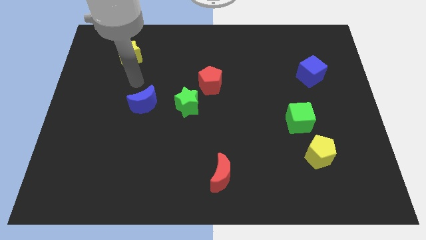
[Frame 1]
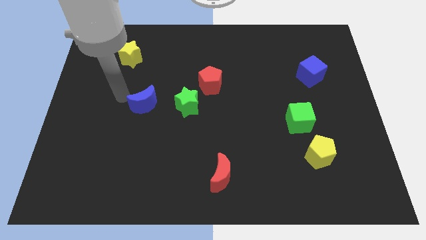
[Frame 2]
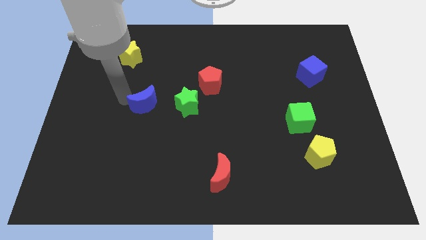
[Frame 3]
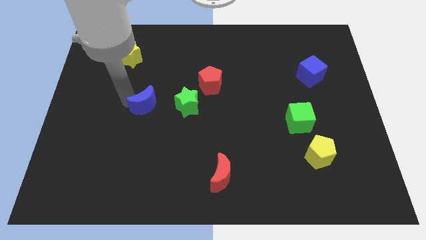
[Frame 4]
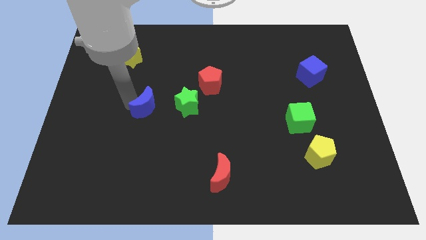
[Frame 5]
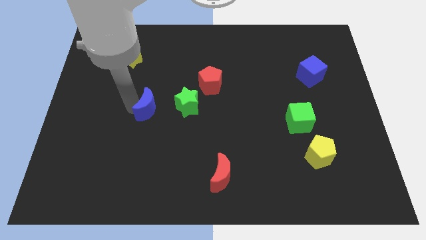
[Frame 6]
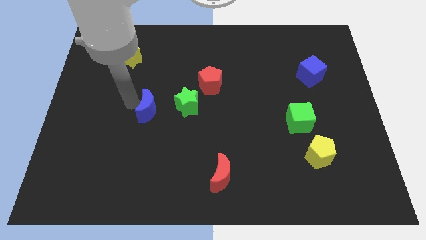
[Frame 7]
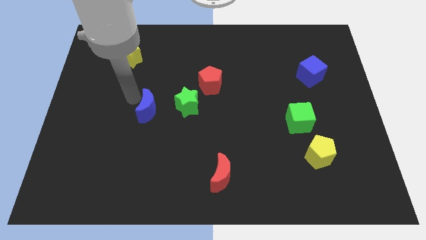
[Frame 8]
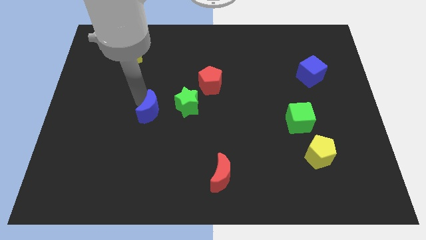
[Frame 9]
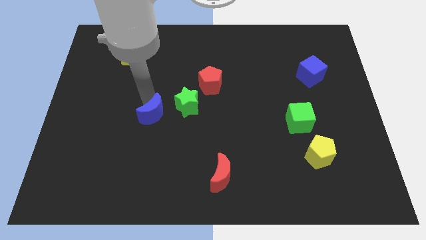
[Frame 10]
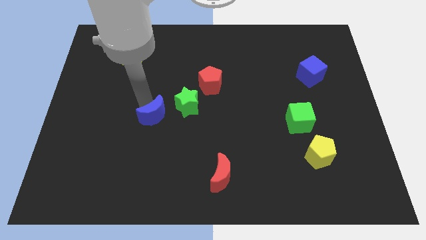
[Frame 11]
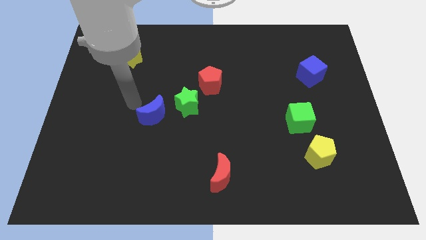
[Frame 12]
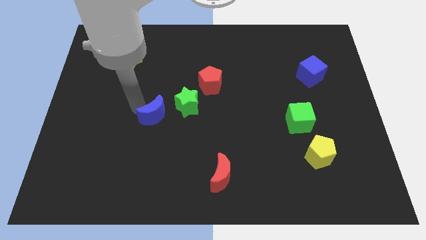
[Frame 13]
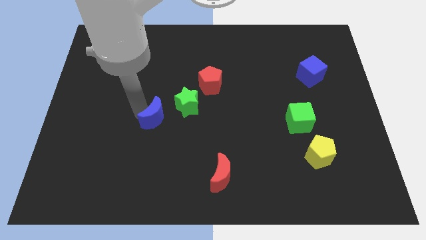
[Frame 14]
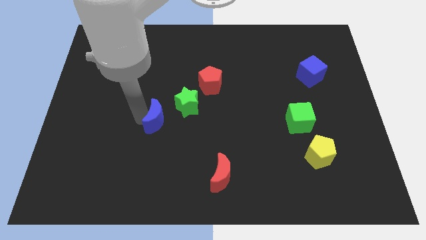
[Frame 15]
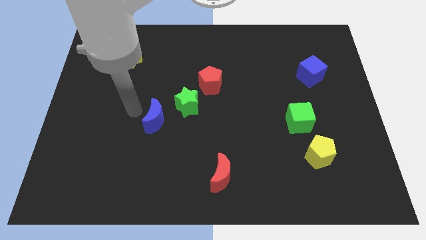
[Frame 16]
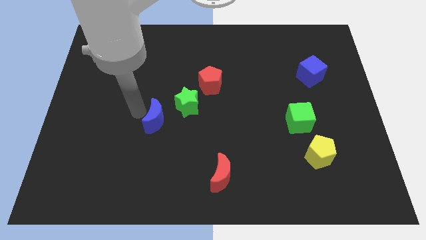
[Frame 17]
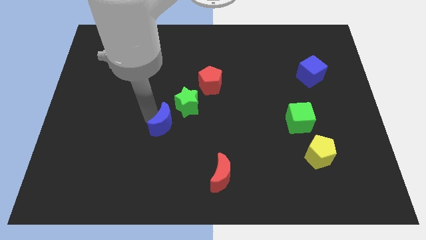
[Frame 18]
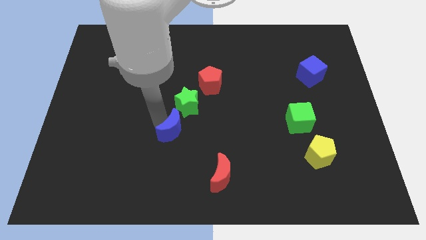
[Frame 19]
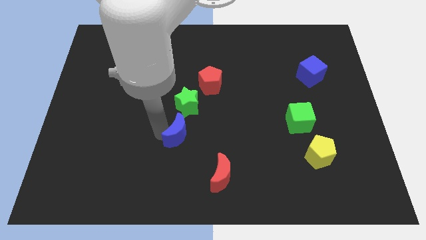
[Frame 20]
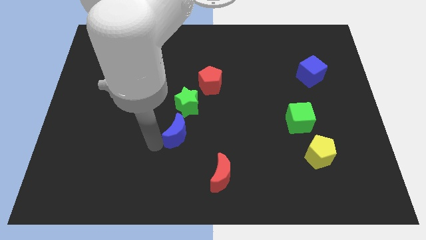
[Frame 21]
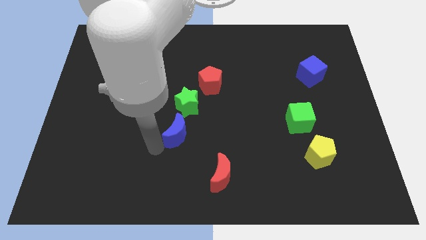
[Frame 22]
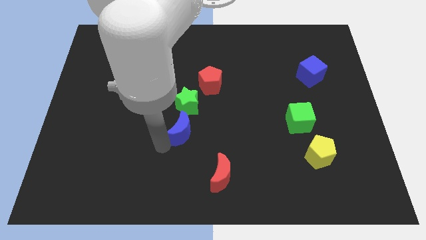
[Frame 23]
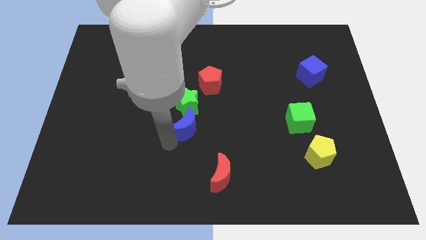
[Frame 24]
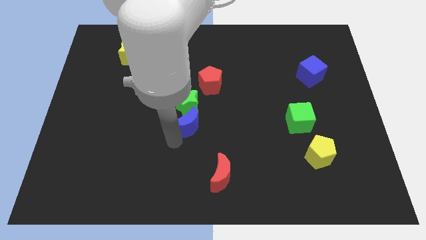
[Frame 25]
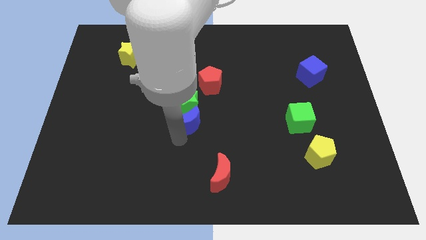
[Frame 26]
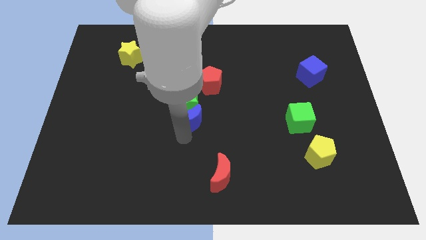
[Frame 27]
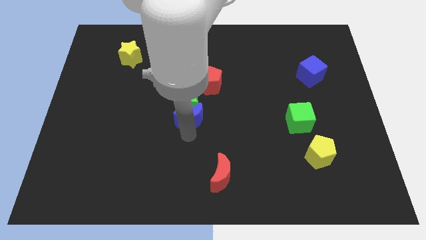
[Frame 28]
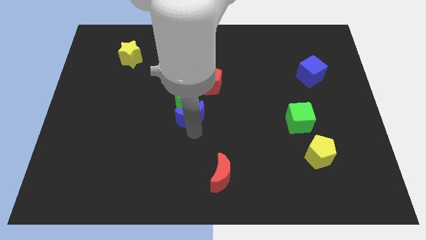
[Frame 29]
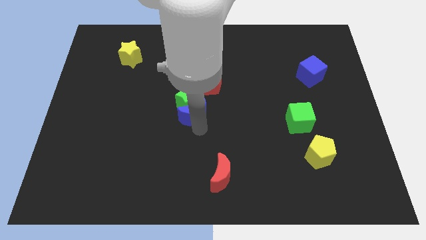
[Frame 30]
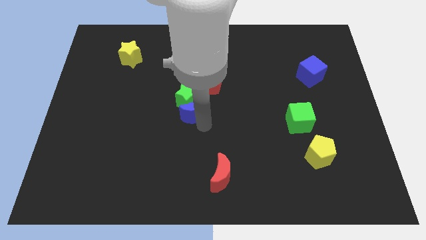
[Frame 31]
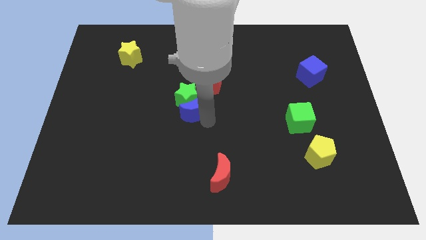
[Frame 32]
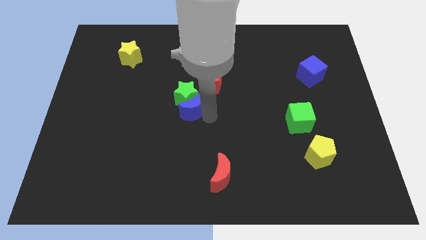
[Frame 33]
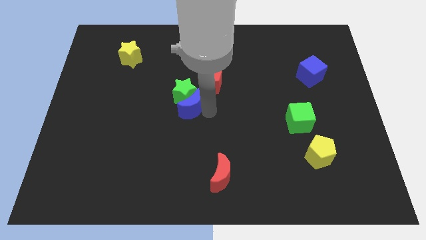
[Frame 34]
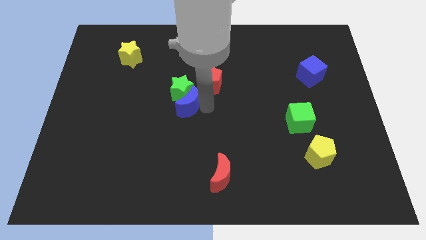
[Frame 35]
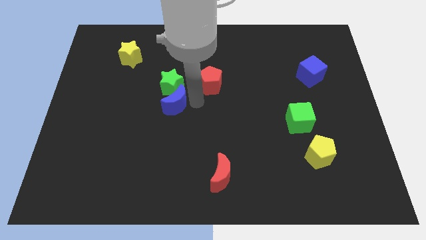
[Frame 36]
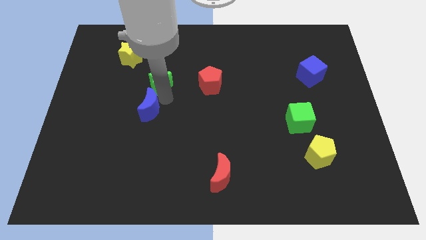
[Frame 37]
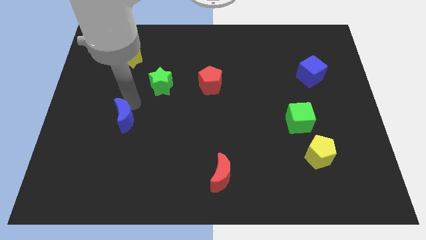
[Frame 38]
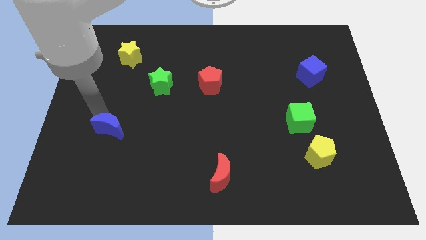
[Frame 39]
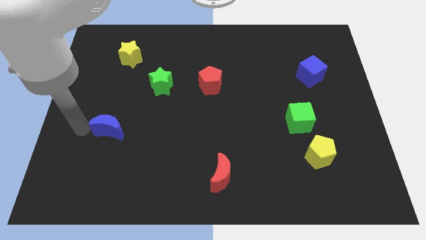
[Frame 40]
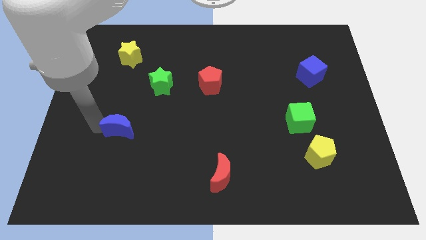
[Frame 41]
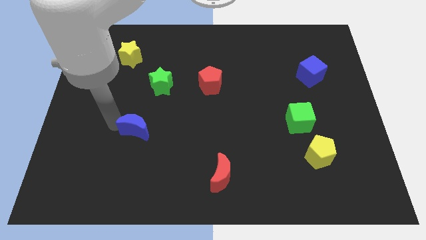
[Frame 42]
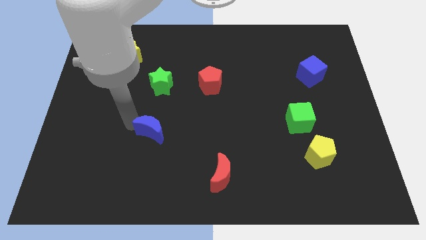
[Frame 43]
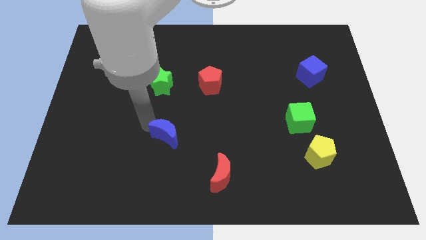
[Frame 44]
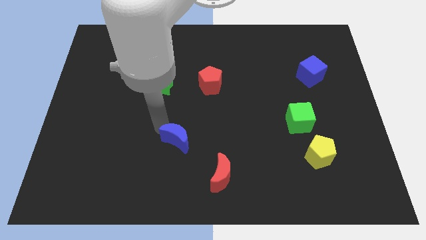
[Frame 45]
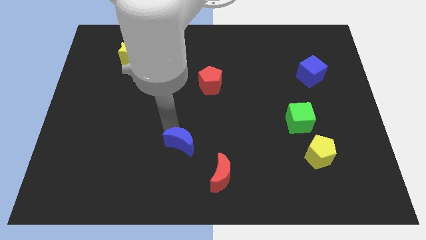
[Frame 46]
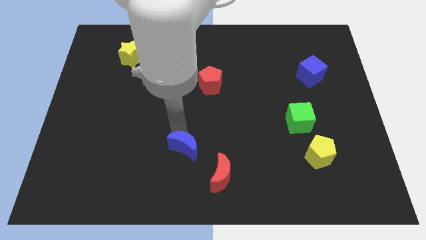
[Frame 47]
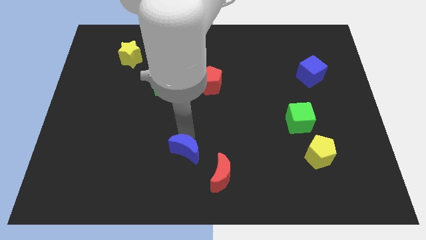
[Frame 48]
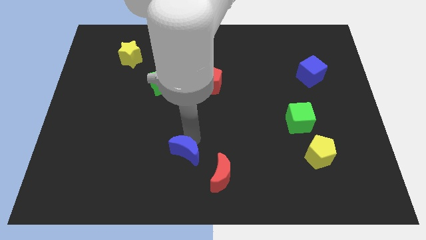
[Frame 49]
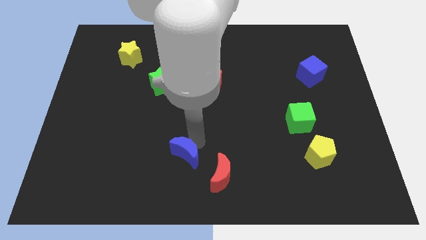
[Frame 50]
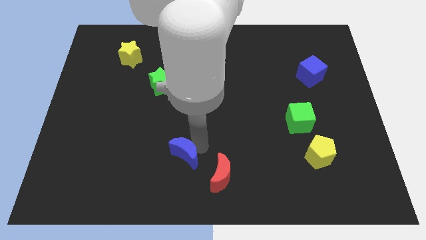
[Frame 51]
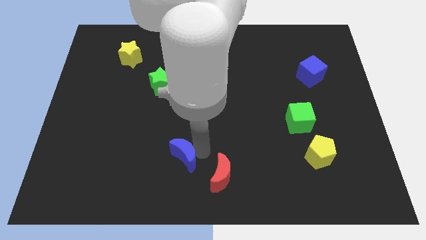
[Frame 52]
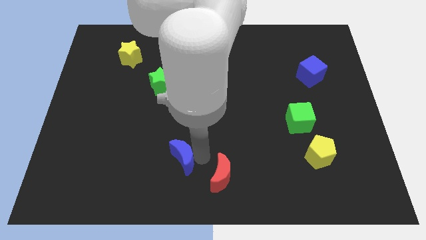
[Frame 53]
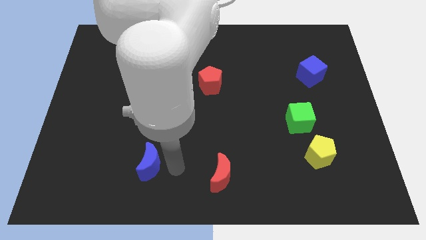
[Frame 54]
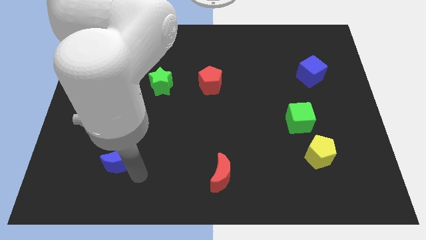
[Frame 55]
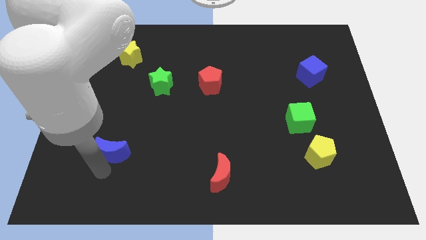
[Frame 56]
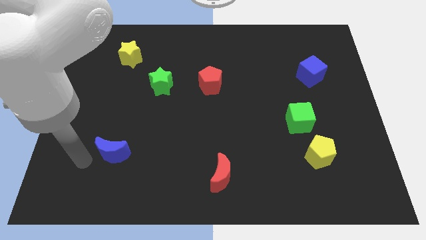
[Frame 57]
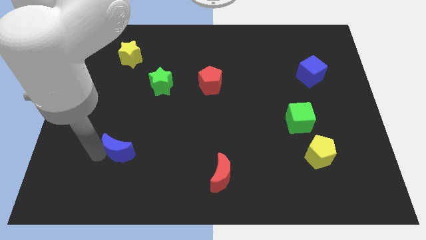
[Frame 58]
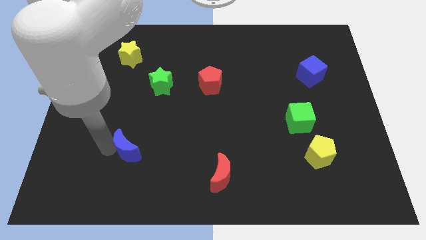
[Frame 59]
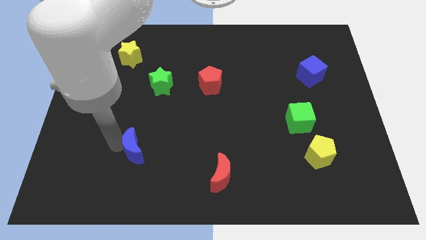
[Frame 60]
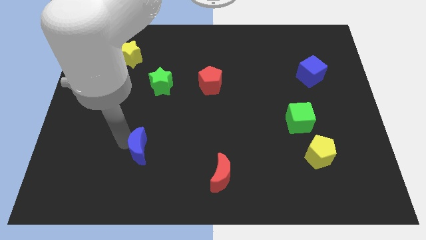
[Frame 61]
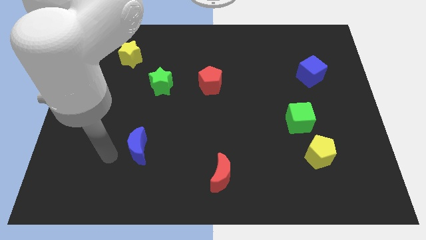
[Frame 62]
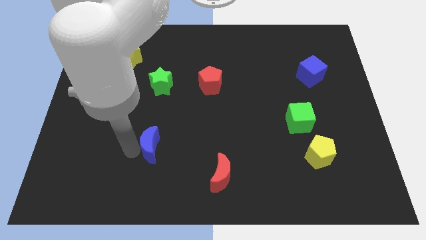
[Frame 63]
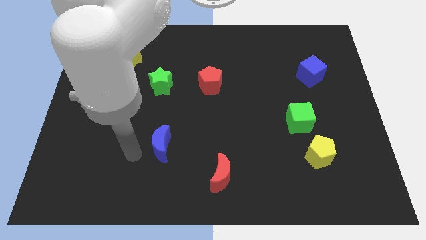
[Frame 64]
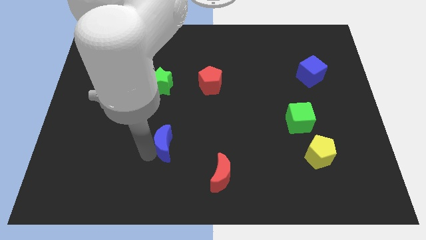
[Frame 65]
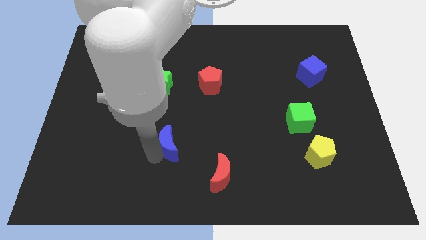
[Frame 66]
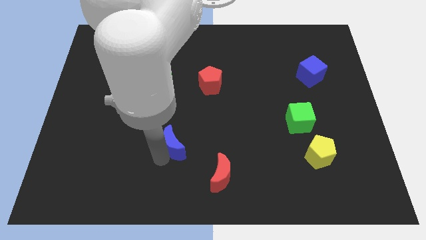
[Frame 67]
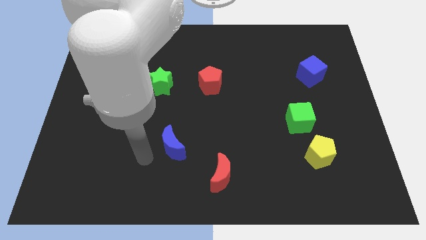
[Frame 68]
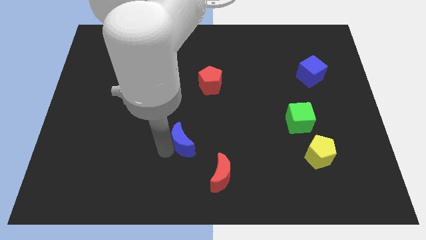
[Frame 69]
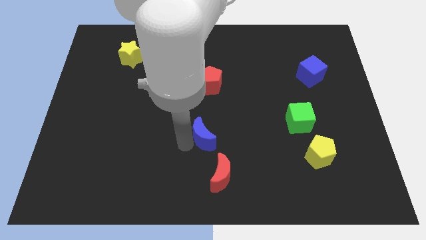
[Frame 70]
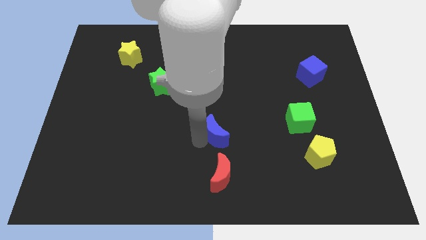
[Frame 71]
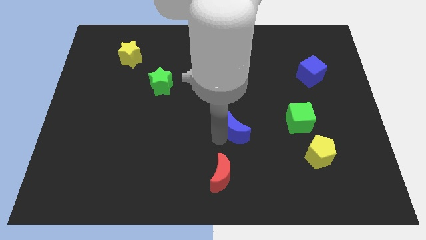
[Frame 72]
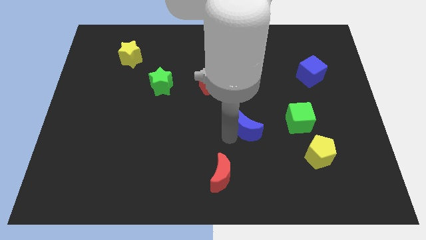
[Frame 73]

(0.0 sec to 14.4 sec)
slide the blue moon right

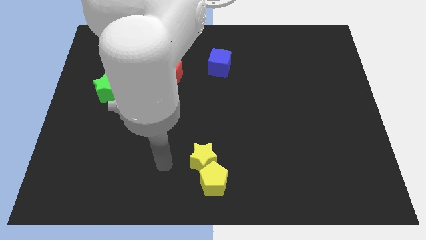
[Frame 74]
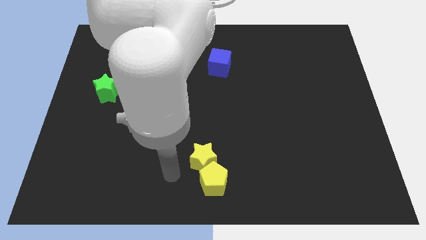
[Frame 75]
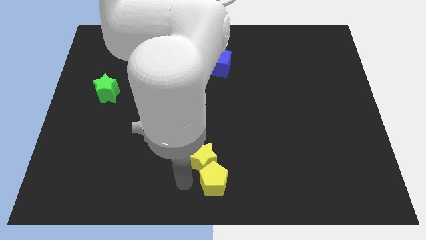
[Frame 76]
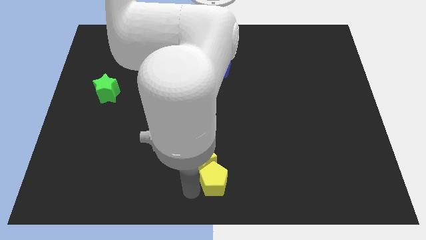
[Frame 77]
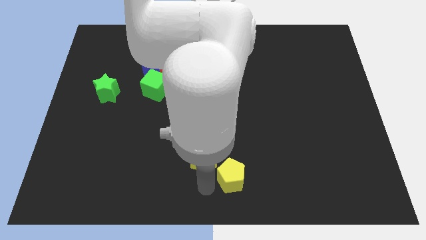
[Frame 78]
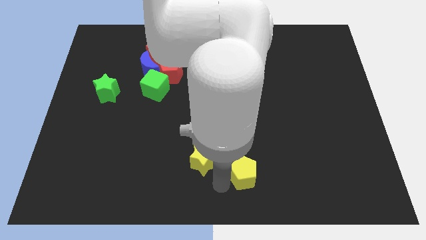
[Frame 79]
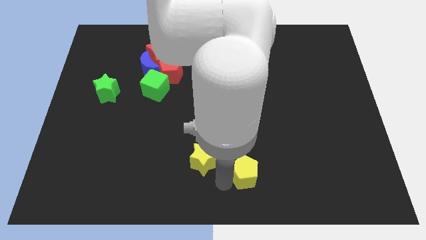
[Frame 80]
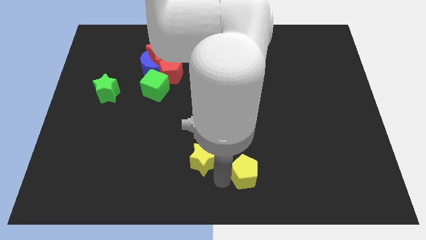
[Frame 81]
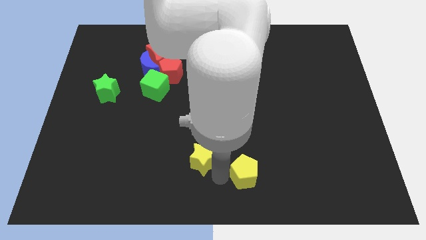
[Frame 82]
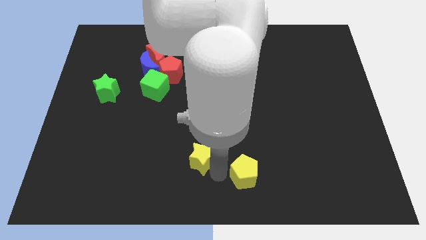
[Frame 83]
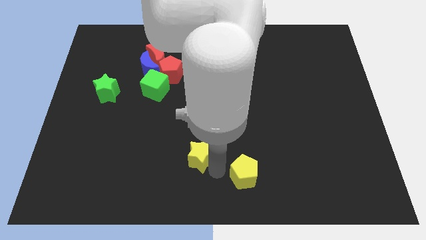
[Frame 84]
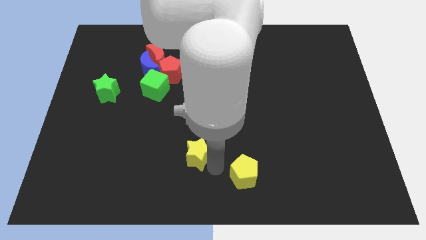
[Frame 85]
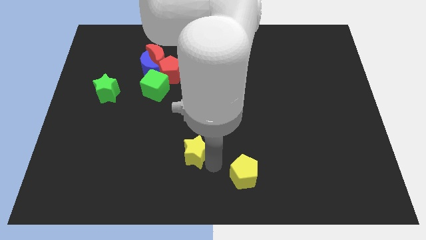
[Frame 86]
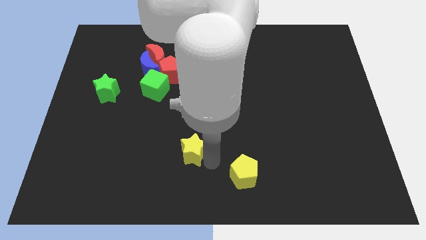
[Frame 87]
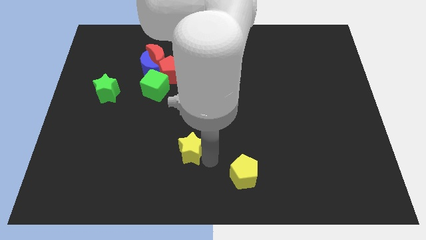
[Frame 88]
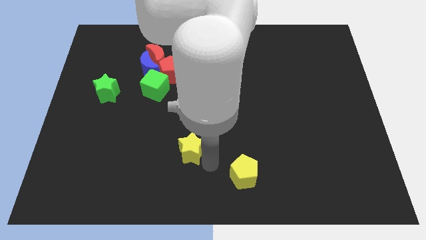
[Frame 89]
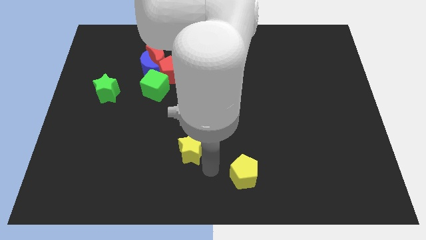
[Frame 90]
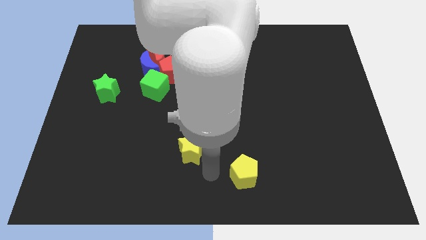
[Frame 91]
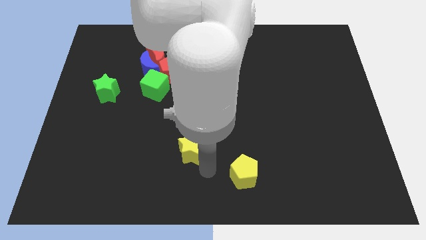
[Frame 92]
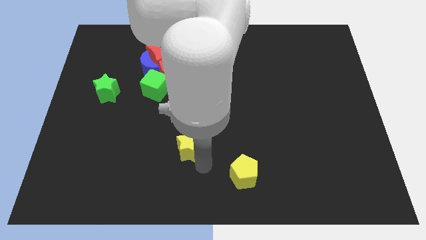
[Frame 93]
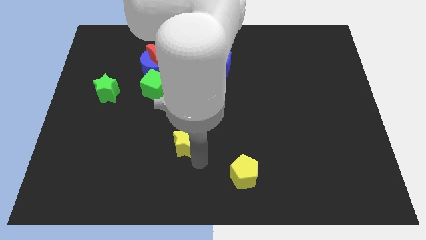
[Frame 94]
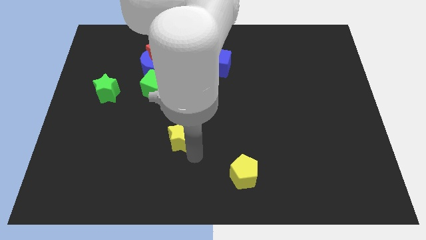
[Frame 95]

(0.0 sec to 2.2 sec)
slide the yellow star diagonally up and to the left somewhat
